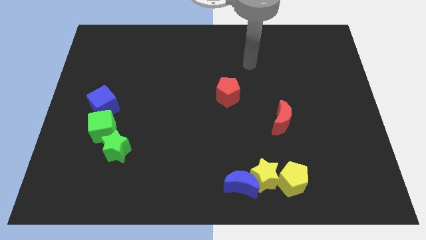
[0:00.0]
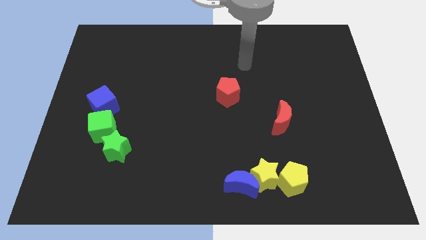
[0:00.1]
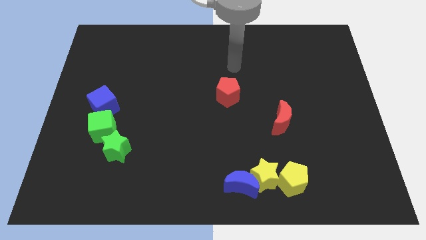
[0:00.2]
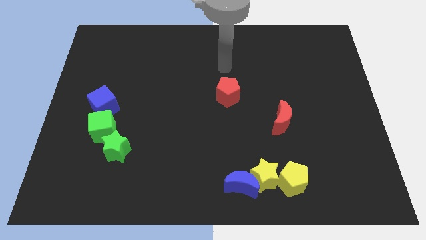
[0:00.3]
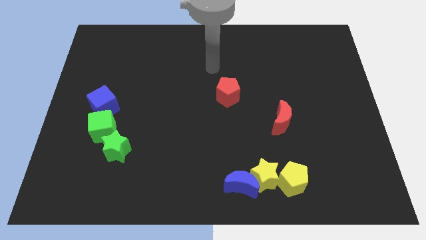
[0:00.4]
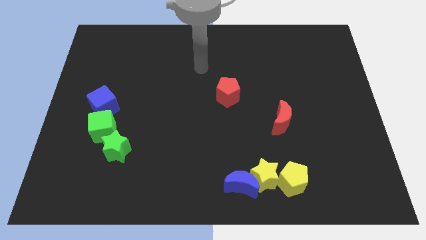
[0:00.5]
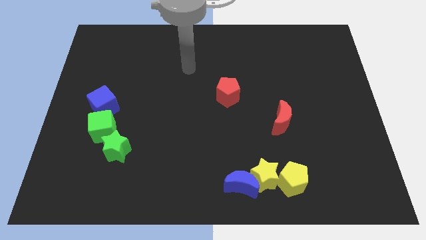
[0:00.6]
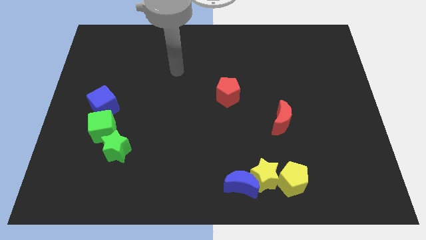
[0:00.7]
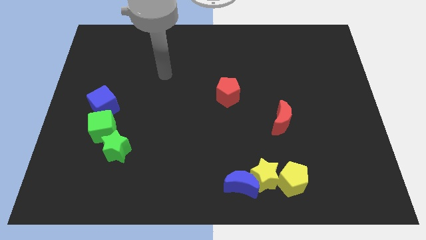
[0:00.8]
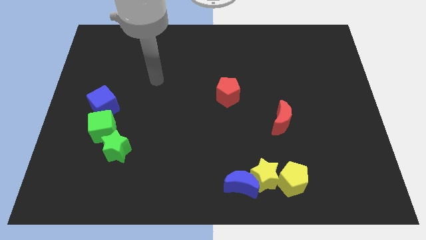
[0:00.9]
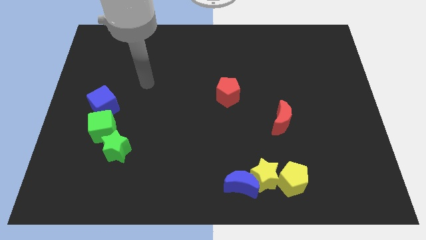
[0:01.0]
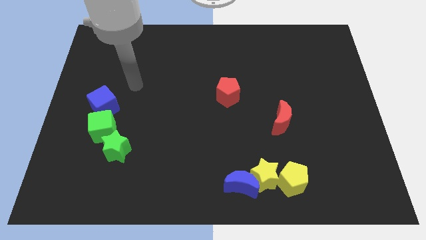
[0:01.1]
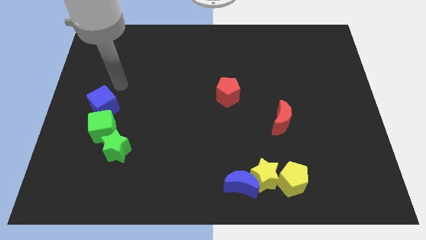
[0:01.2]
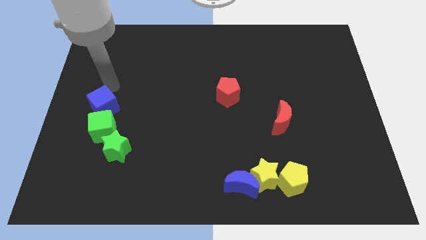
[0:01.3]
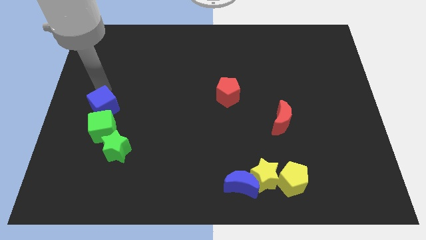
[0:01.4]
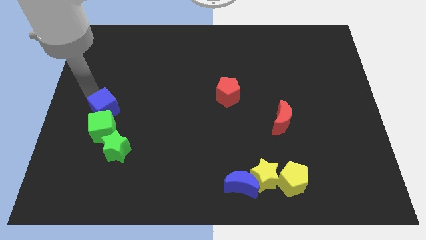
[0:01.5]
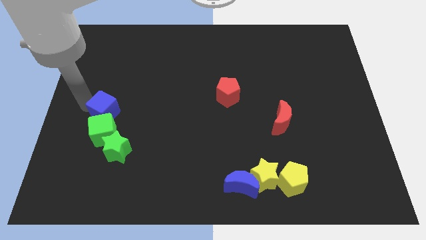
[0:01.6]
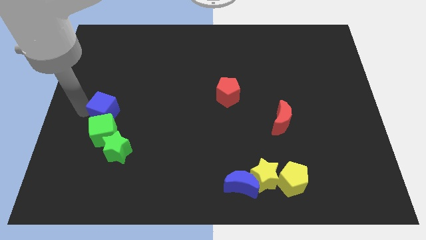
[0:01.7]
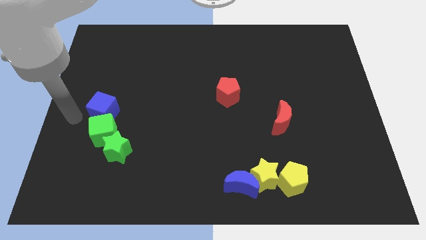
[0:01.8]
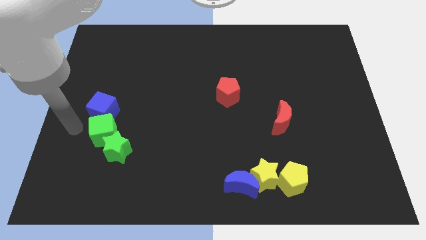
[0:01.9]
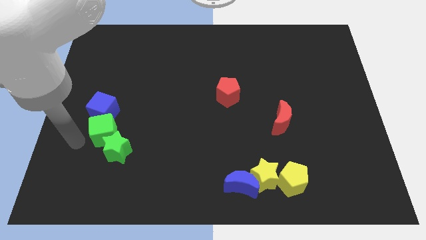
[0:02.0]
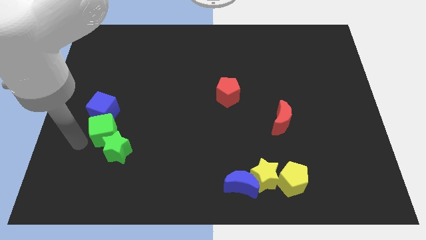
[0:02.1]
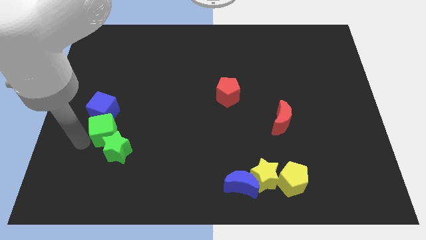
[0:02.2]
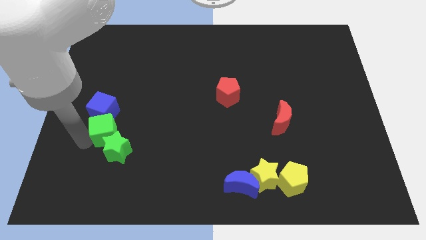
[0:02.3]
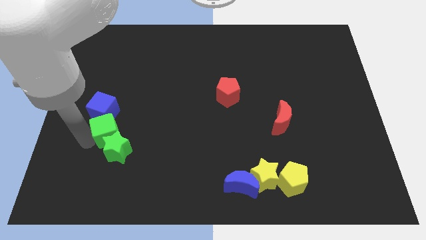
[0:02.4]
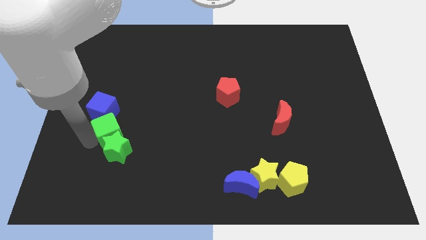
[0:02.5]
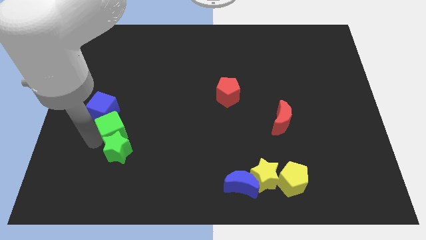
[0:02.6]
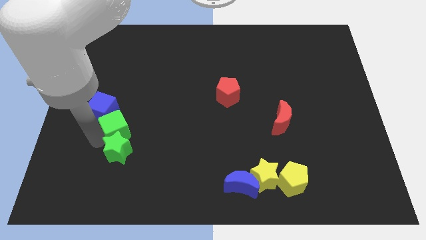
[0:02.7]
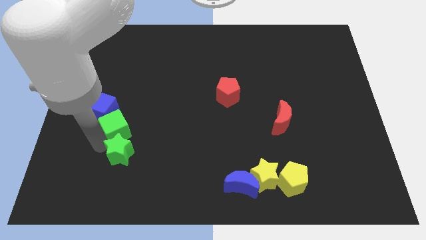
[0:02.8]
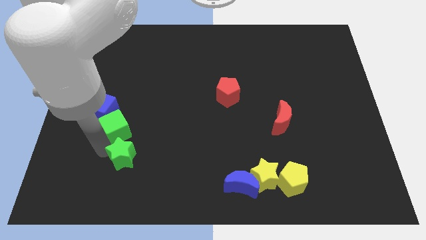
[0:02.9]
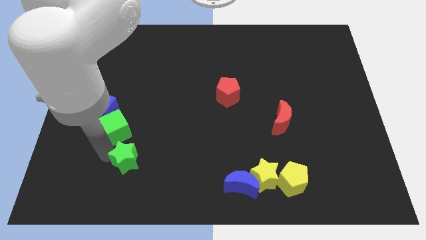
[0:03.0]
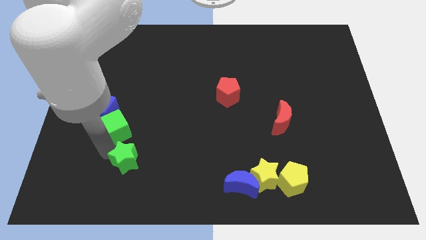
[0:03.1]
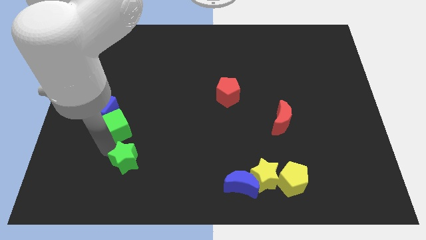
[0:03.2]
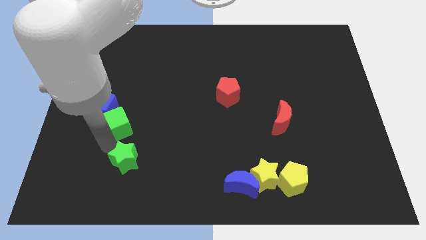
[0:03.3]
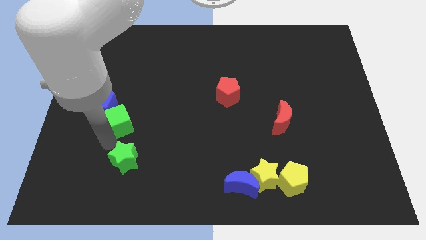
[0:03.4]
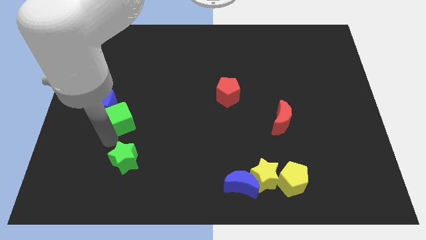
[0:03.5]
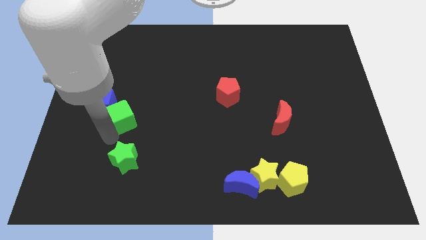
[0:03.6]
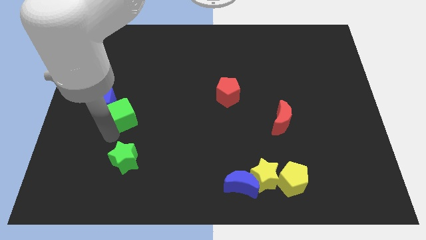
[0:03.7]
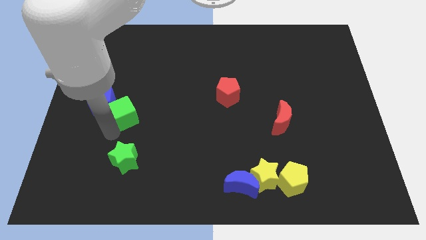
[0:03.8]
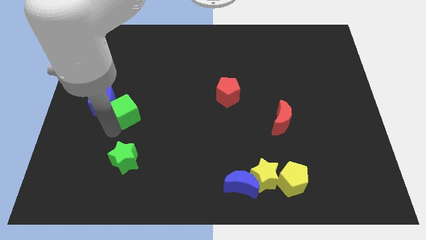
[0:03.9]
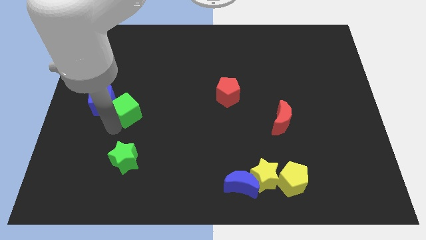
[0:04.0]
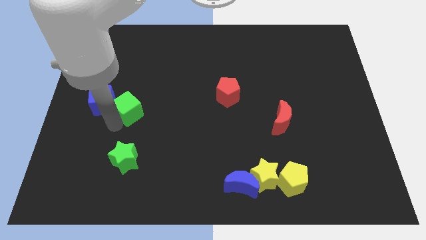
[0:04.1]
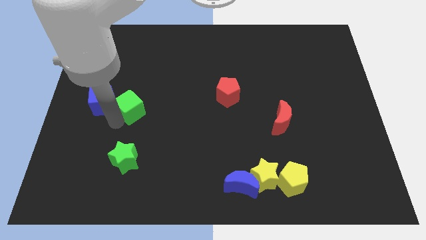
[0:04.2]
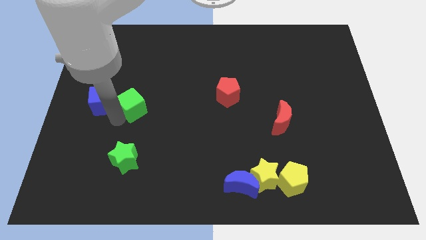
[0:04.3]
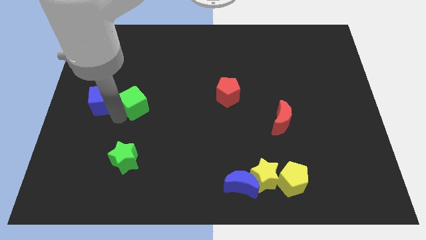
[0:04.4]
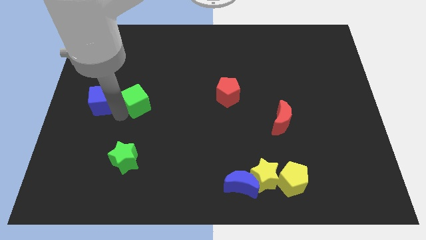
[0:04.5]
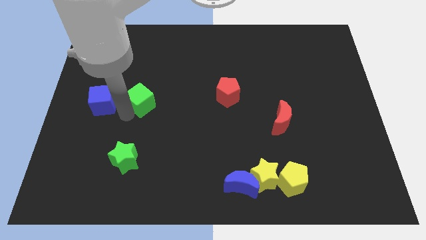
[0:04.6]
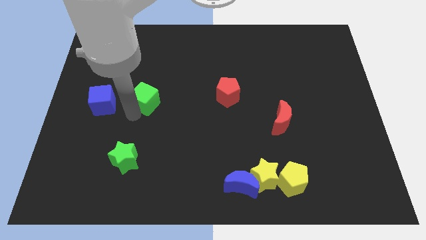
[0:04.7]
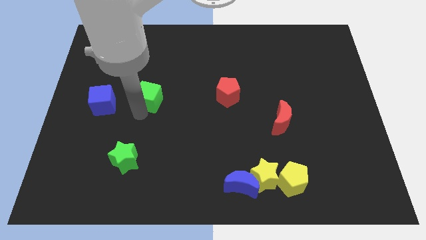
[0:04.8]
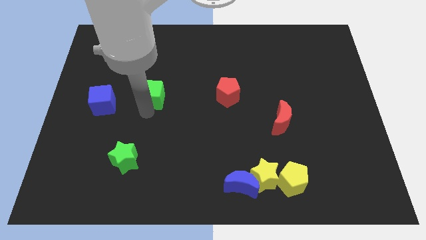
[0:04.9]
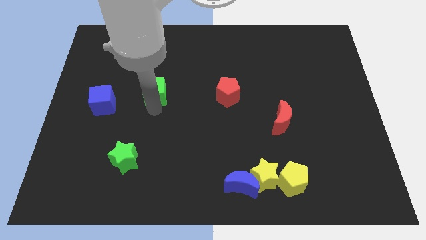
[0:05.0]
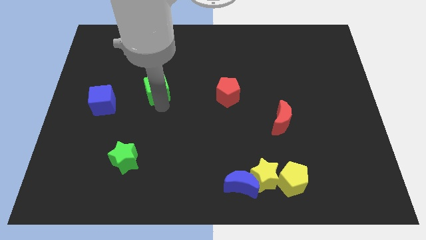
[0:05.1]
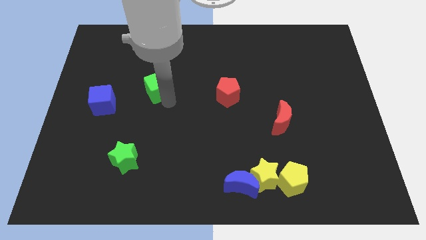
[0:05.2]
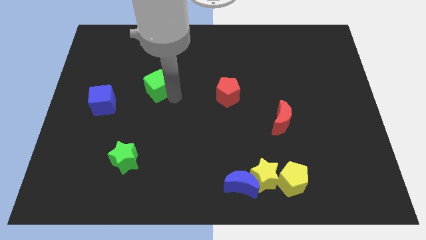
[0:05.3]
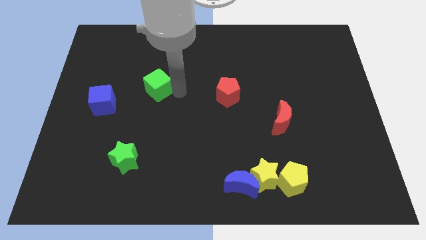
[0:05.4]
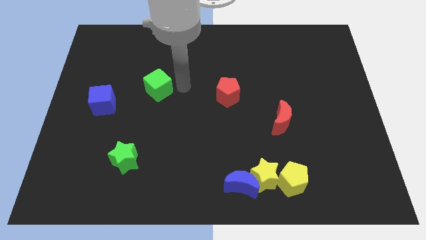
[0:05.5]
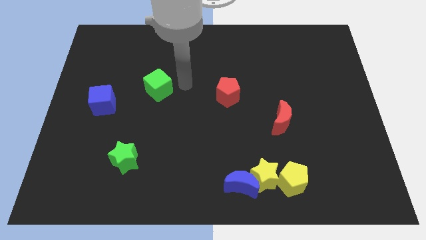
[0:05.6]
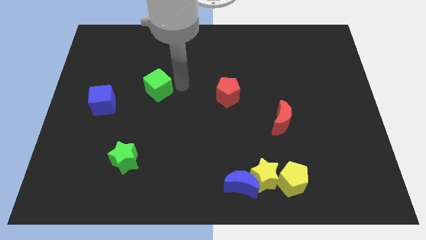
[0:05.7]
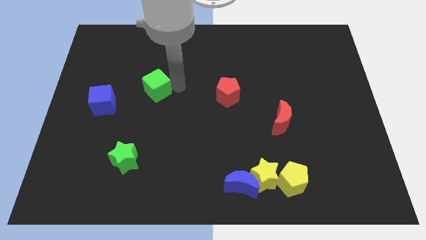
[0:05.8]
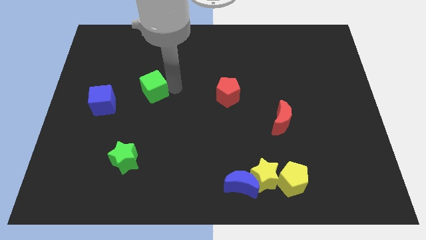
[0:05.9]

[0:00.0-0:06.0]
move the green cube up a bit

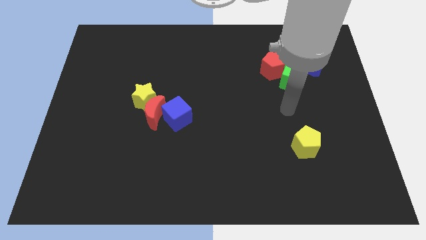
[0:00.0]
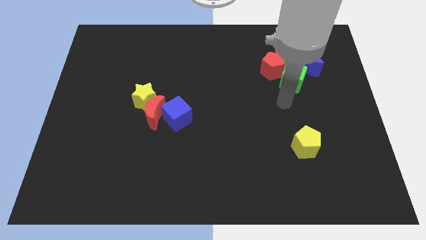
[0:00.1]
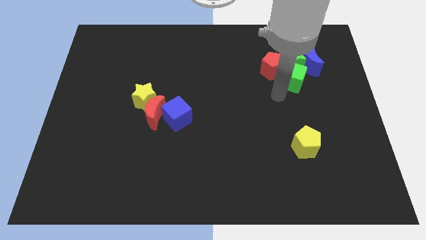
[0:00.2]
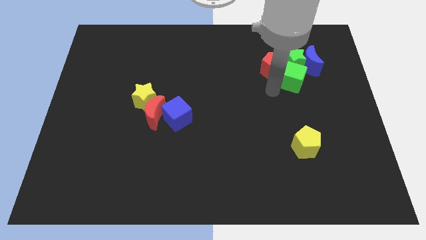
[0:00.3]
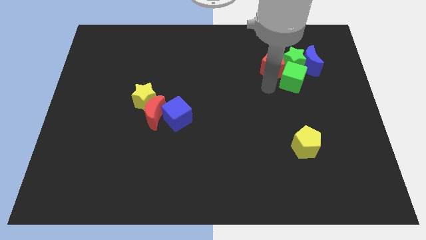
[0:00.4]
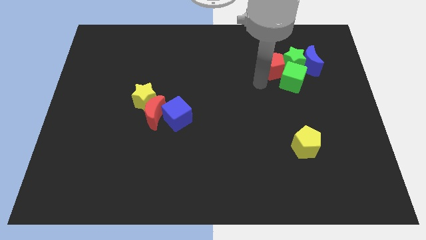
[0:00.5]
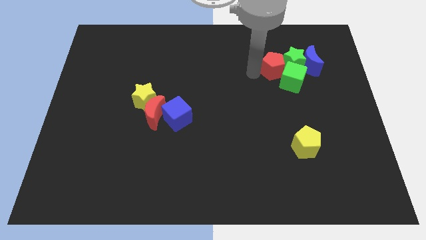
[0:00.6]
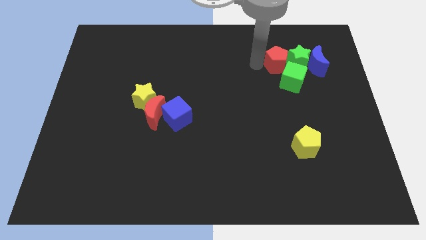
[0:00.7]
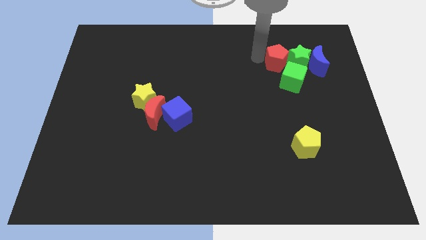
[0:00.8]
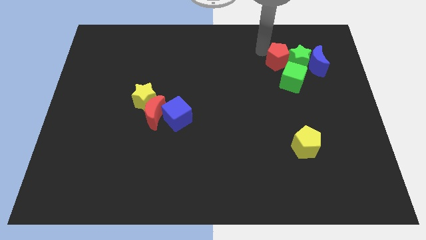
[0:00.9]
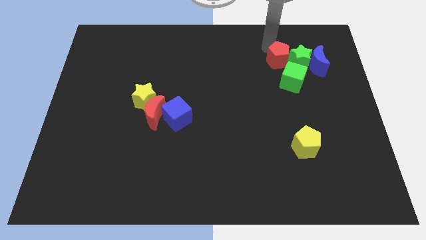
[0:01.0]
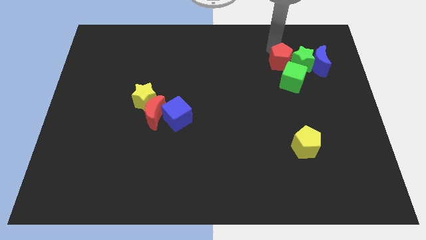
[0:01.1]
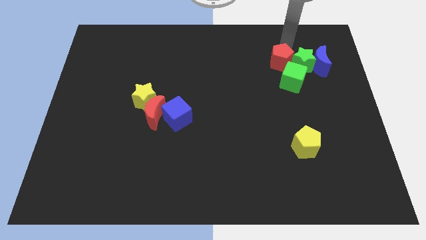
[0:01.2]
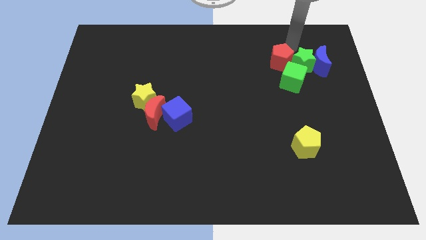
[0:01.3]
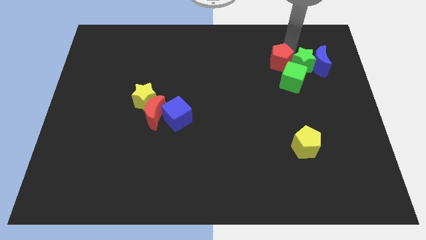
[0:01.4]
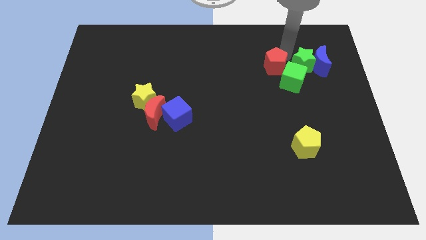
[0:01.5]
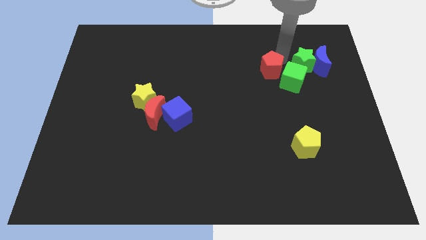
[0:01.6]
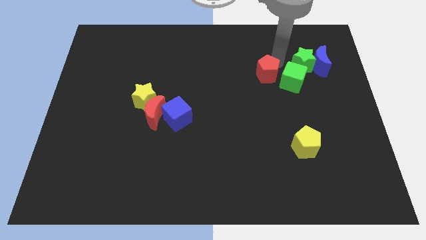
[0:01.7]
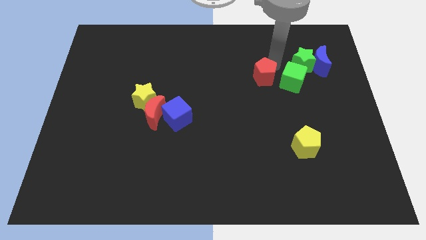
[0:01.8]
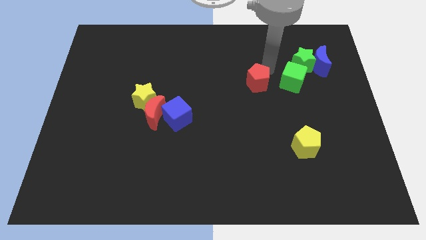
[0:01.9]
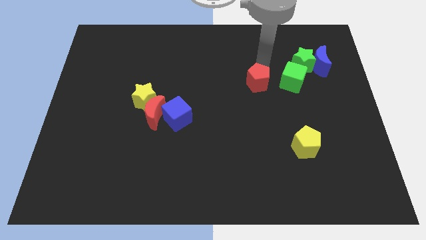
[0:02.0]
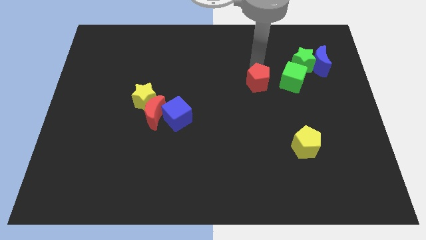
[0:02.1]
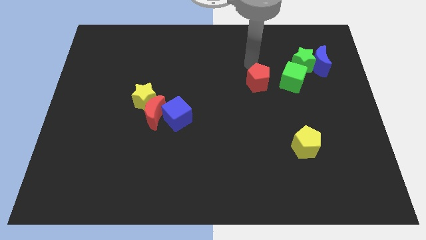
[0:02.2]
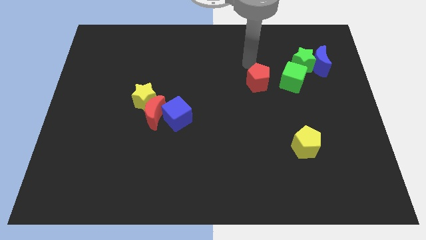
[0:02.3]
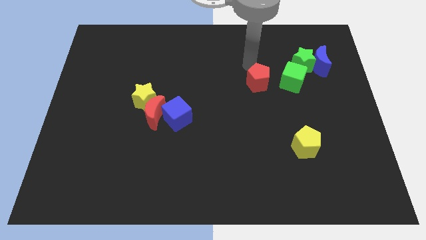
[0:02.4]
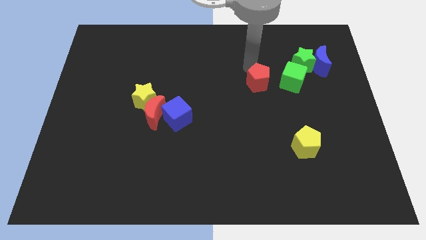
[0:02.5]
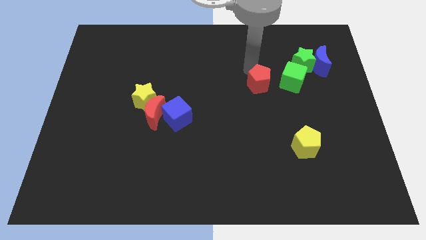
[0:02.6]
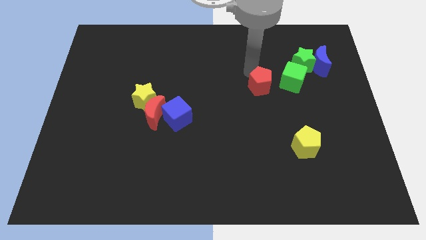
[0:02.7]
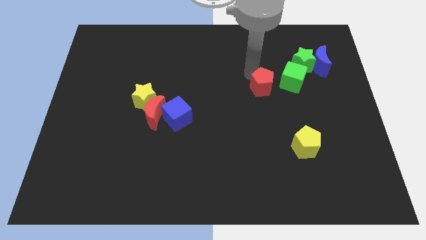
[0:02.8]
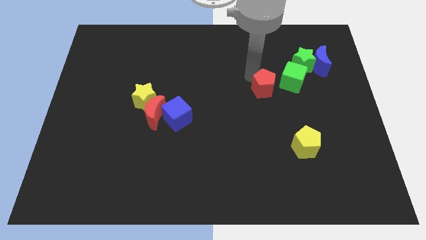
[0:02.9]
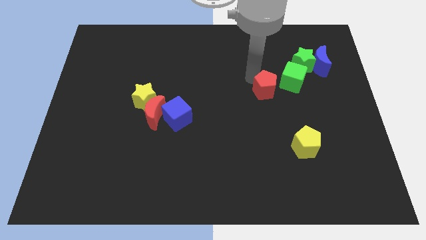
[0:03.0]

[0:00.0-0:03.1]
move the red pentagon somewhat downwards
